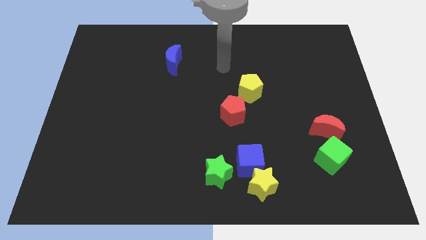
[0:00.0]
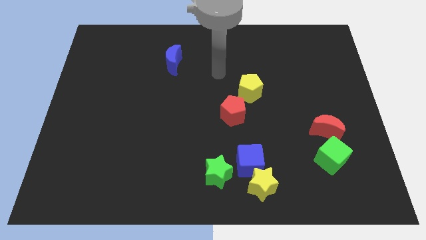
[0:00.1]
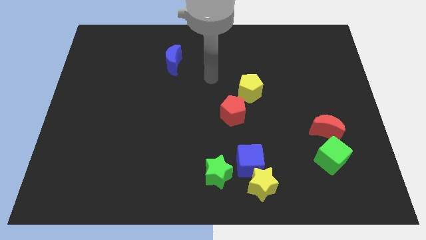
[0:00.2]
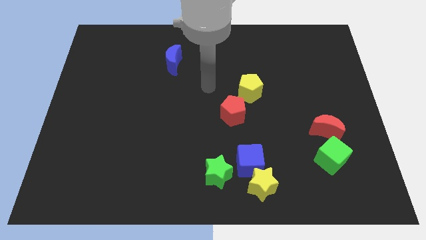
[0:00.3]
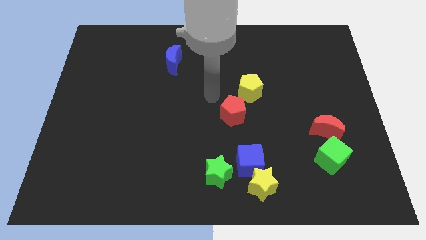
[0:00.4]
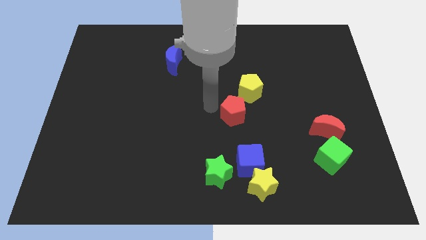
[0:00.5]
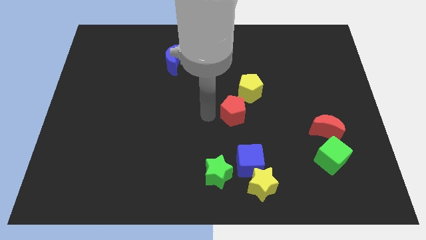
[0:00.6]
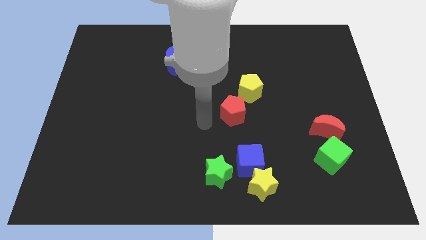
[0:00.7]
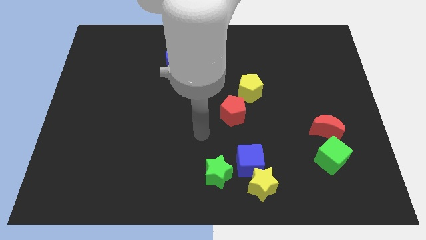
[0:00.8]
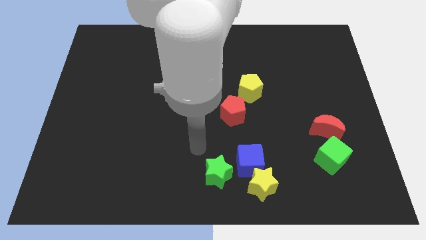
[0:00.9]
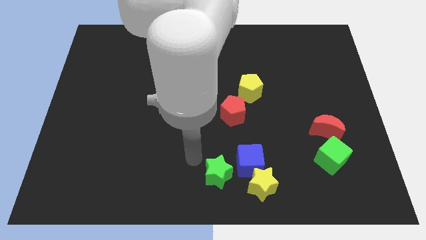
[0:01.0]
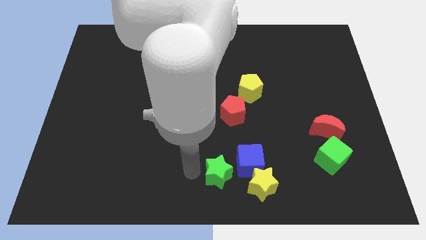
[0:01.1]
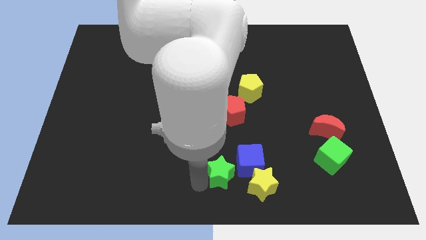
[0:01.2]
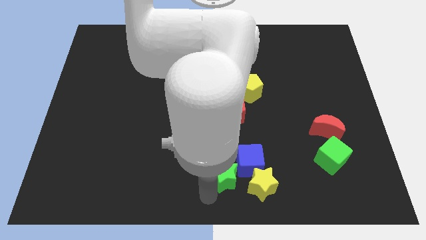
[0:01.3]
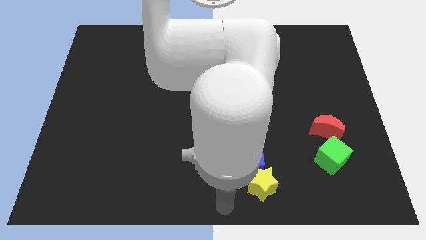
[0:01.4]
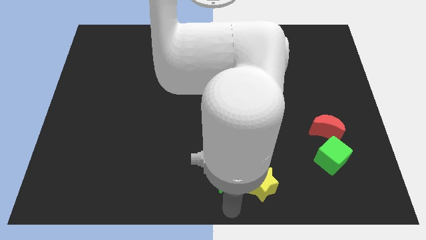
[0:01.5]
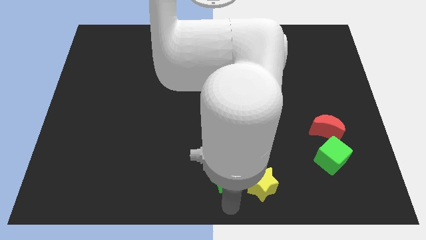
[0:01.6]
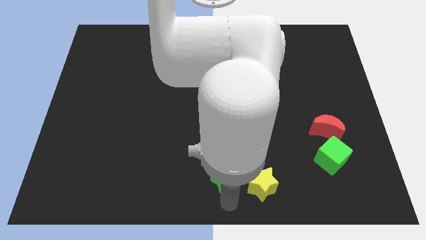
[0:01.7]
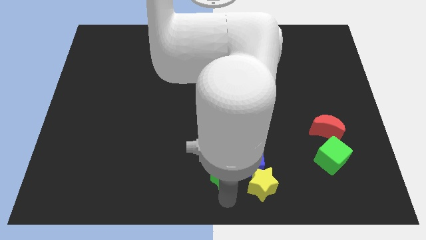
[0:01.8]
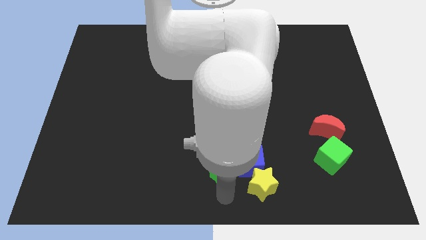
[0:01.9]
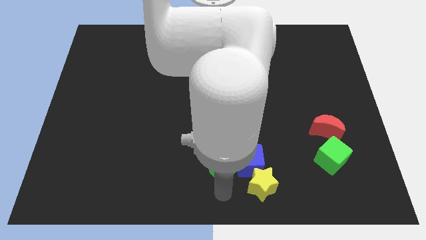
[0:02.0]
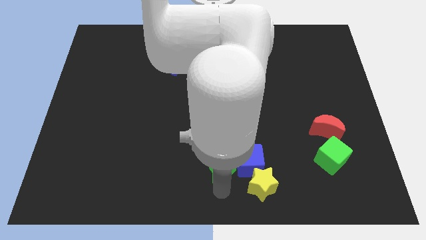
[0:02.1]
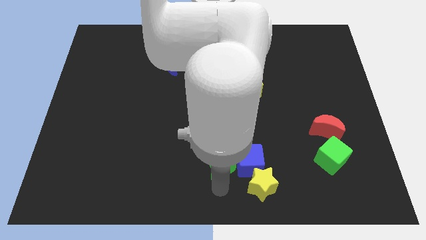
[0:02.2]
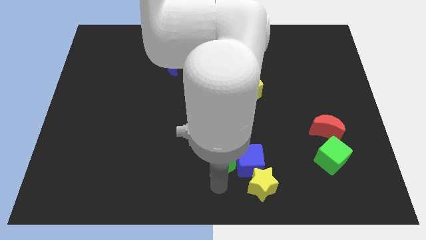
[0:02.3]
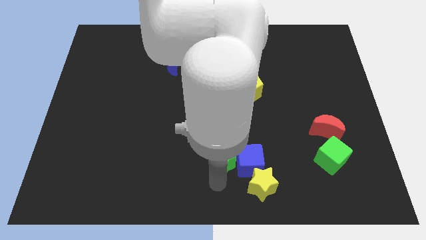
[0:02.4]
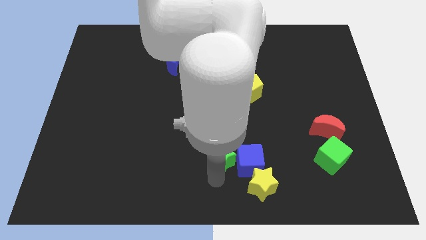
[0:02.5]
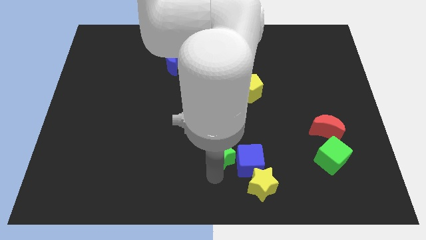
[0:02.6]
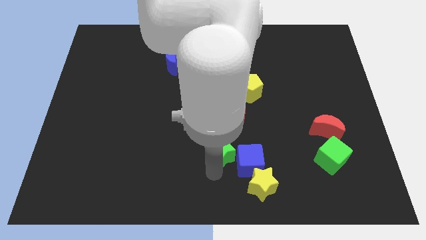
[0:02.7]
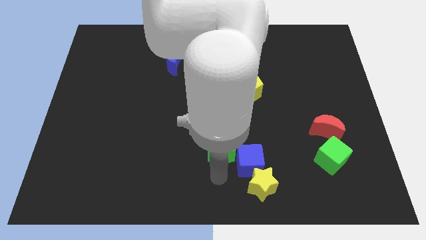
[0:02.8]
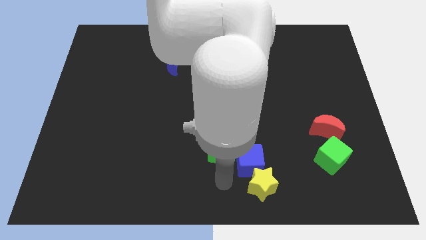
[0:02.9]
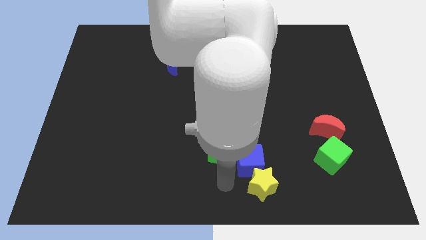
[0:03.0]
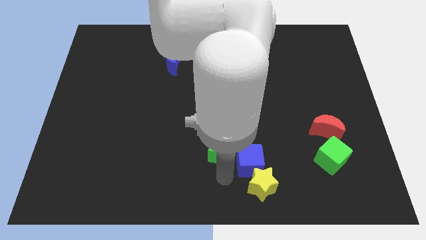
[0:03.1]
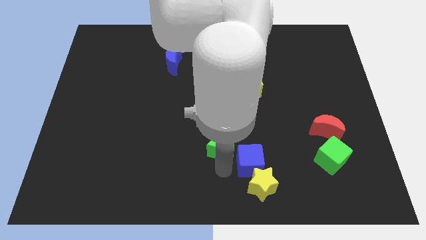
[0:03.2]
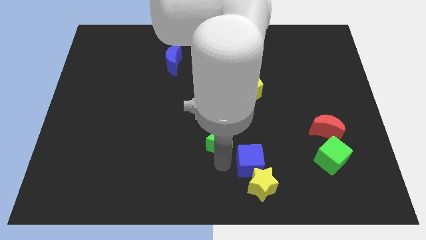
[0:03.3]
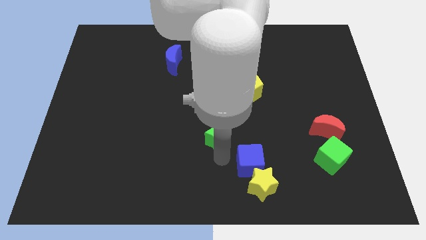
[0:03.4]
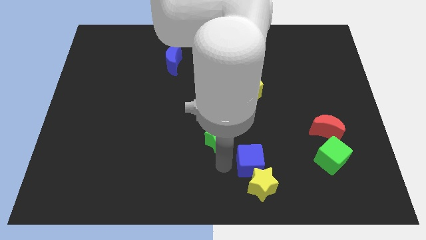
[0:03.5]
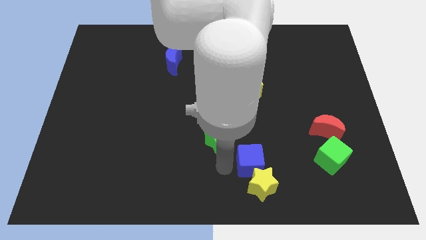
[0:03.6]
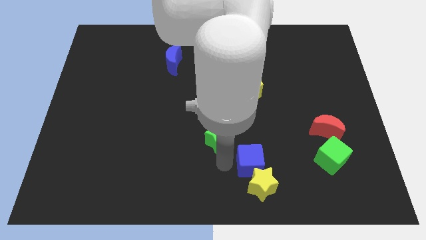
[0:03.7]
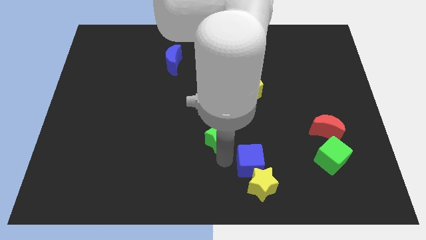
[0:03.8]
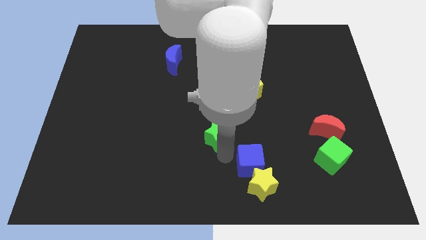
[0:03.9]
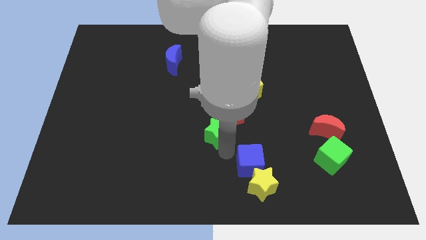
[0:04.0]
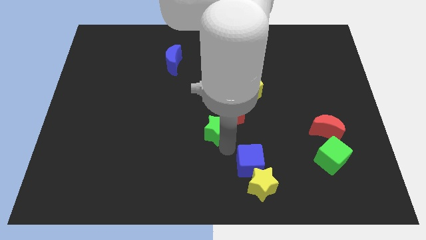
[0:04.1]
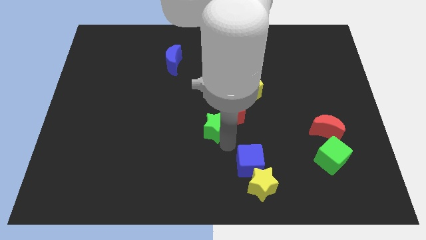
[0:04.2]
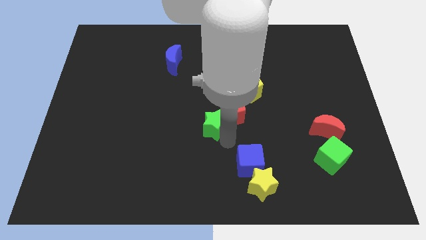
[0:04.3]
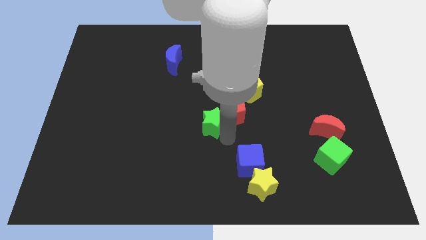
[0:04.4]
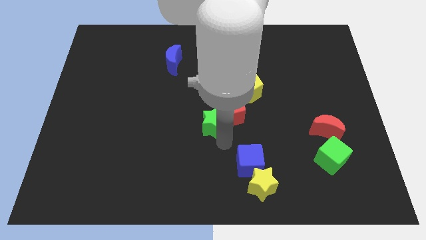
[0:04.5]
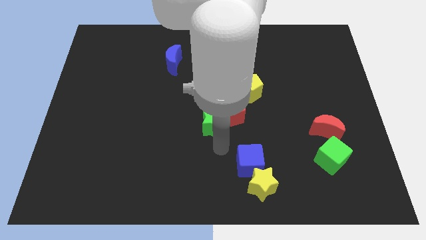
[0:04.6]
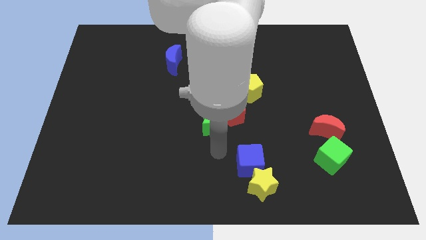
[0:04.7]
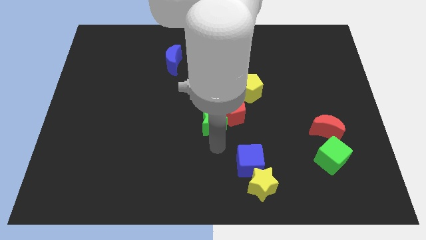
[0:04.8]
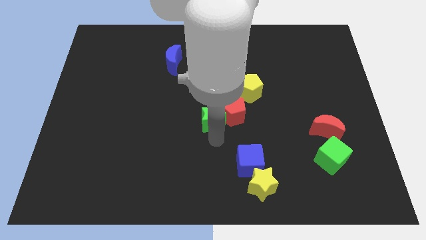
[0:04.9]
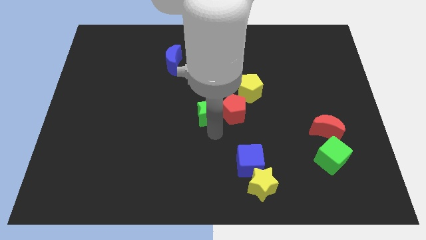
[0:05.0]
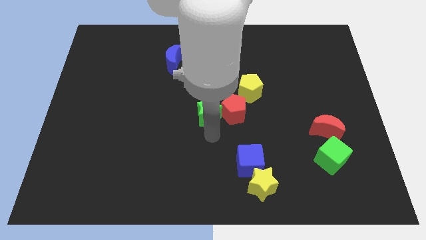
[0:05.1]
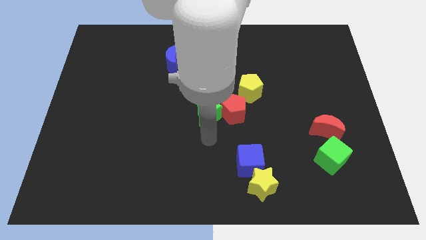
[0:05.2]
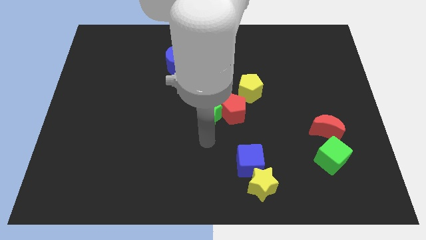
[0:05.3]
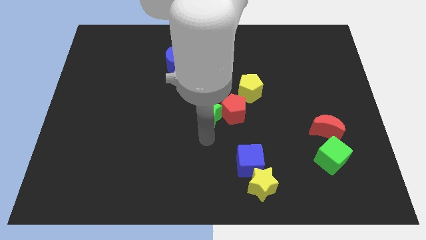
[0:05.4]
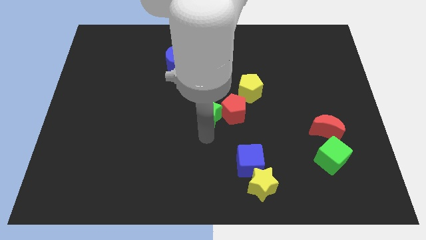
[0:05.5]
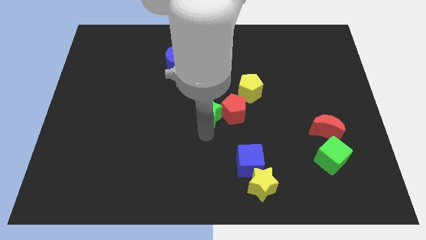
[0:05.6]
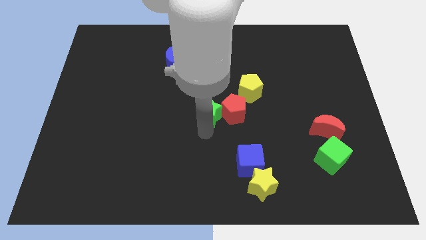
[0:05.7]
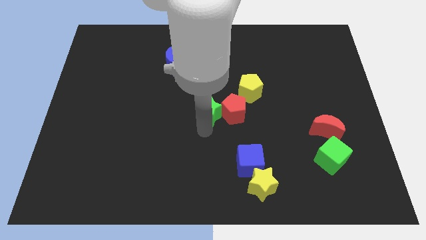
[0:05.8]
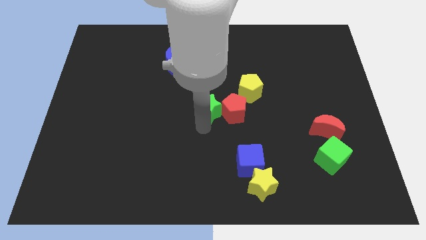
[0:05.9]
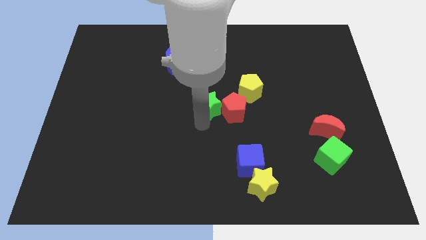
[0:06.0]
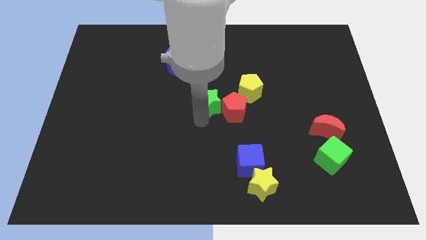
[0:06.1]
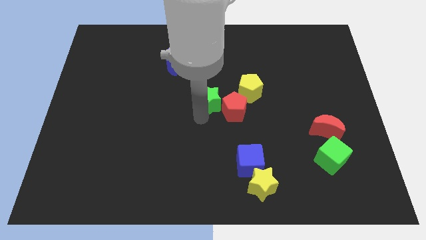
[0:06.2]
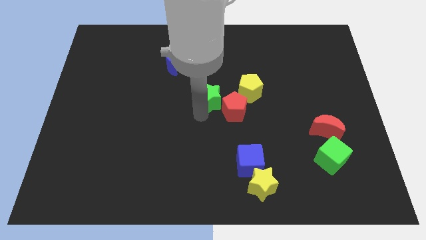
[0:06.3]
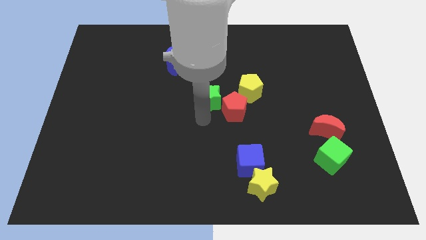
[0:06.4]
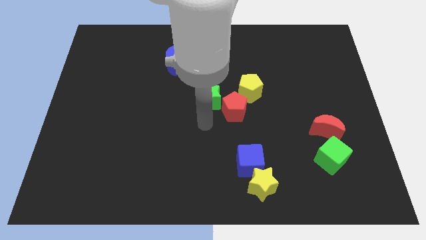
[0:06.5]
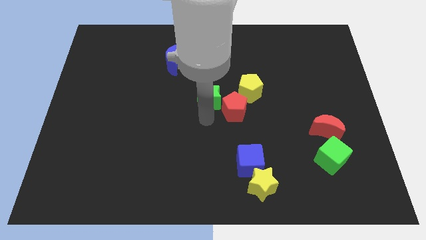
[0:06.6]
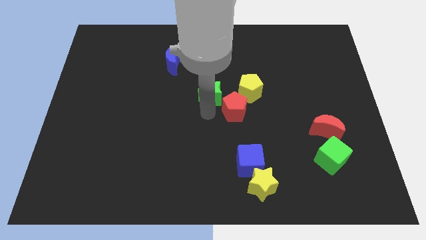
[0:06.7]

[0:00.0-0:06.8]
slide the green star up

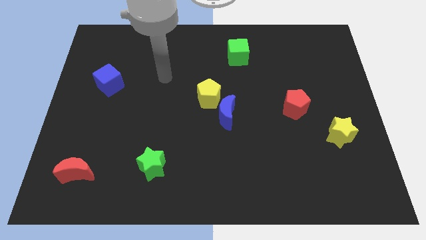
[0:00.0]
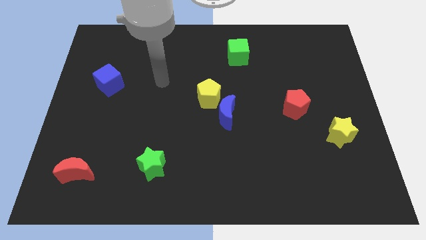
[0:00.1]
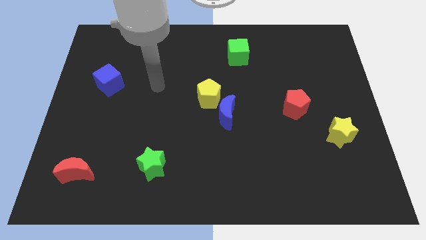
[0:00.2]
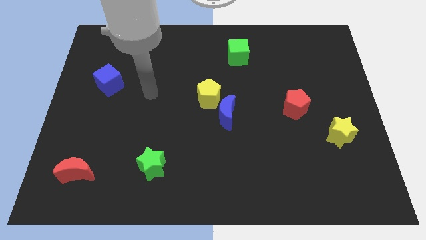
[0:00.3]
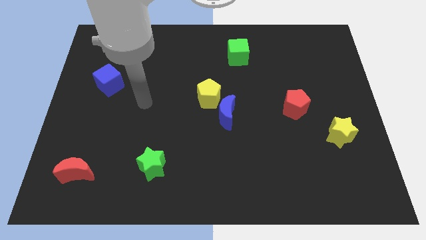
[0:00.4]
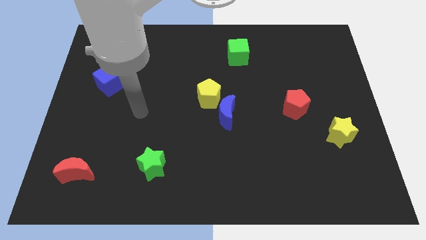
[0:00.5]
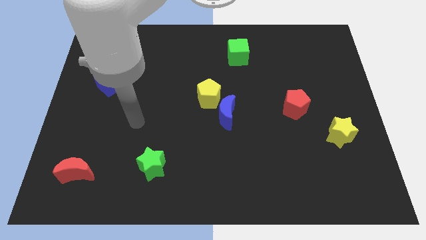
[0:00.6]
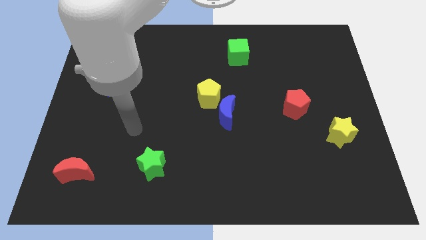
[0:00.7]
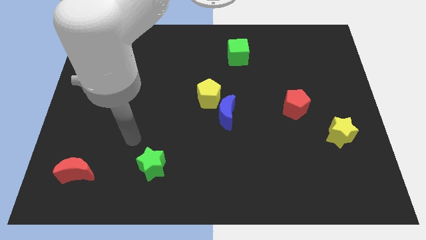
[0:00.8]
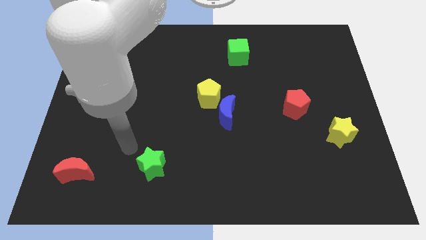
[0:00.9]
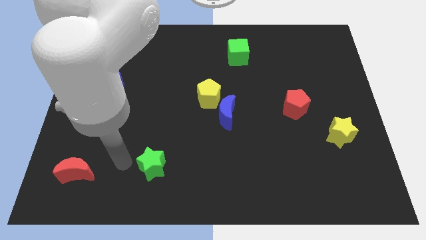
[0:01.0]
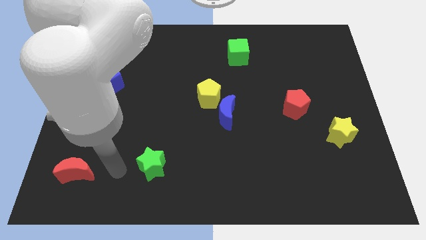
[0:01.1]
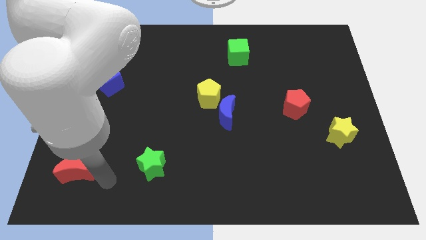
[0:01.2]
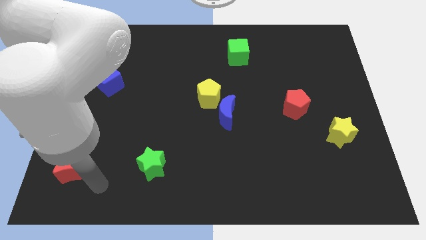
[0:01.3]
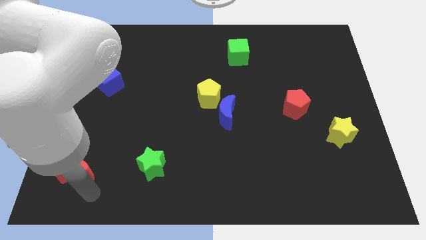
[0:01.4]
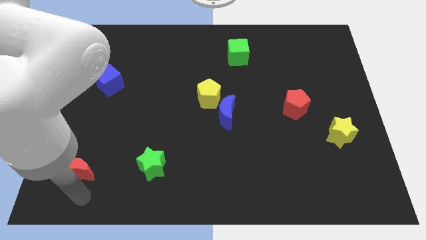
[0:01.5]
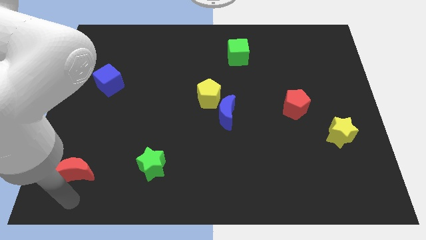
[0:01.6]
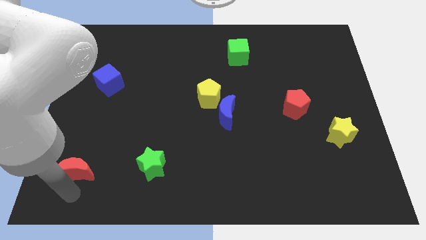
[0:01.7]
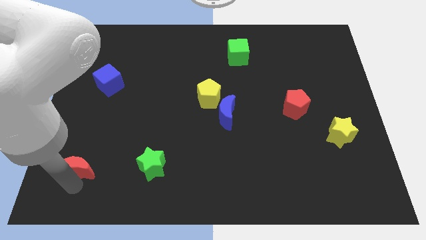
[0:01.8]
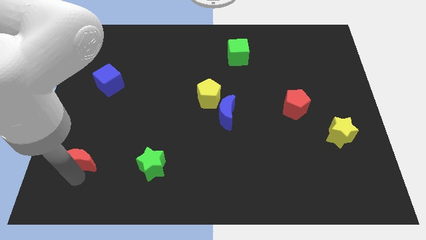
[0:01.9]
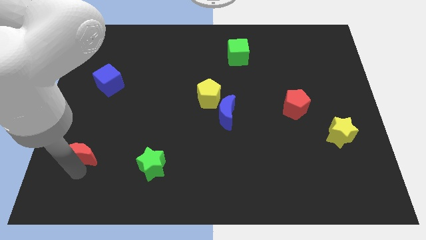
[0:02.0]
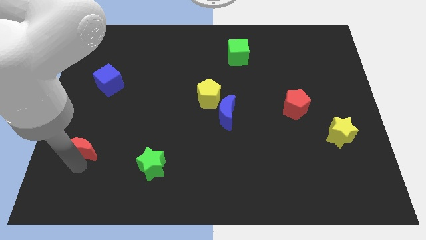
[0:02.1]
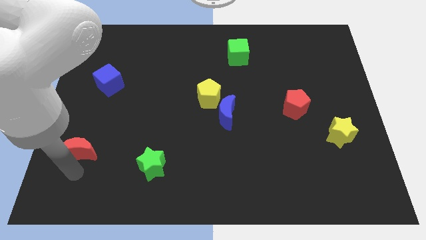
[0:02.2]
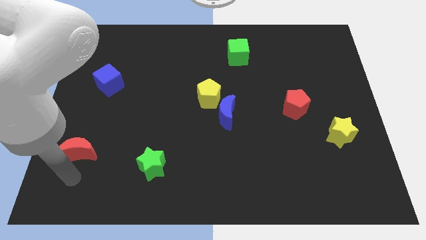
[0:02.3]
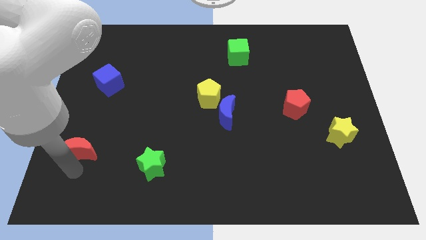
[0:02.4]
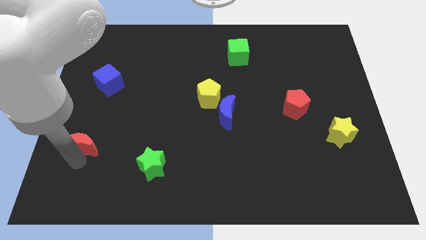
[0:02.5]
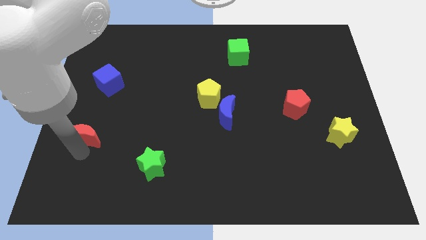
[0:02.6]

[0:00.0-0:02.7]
slide the red moon up a bit
